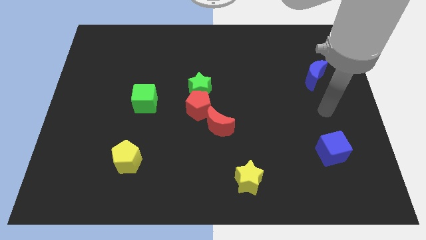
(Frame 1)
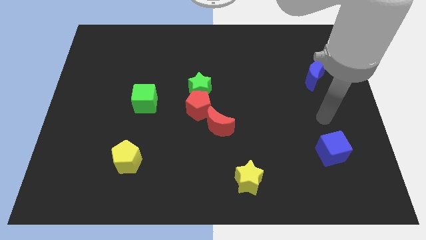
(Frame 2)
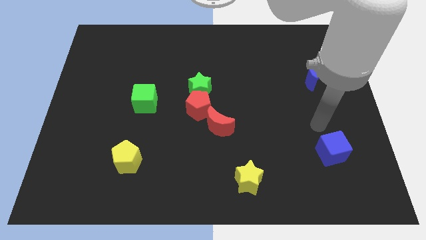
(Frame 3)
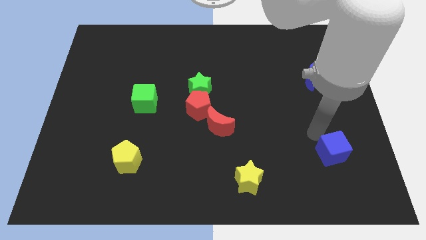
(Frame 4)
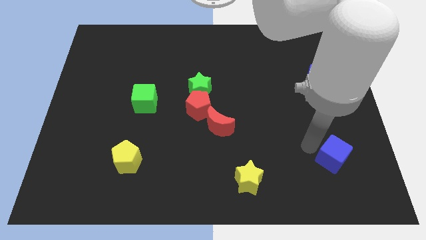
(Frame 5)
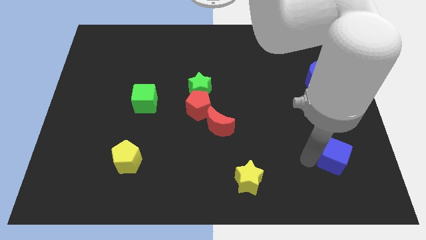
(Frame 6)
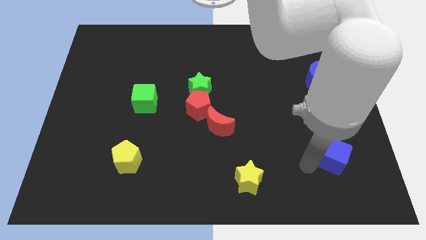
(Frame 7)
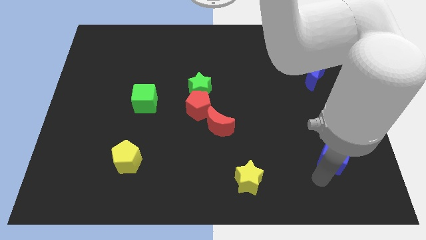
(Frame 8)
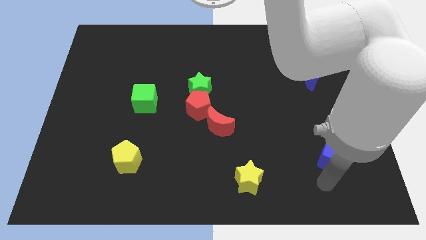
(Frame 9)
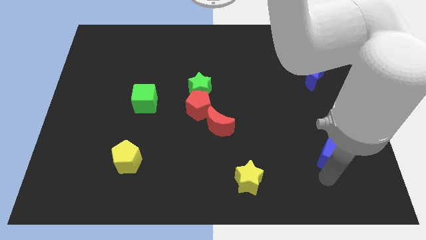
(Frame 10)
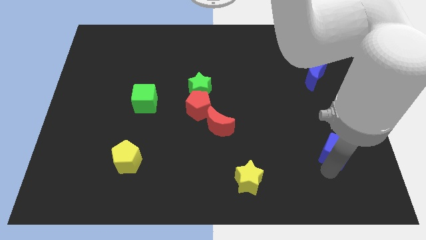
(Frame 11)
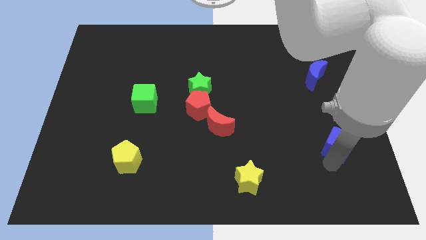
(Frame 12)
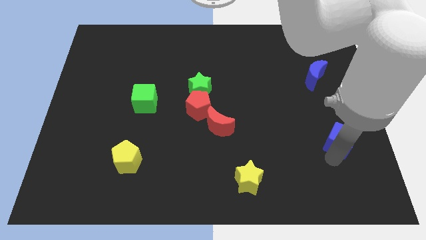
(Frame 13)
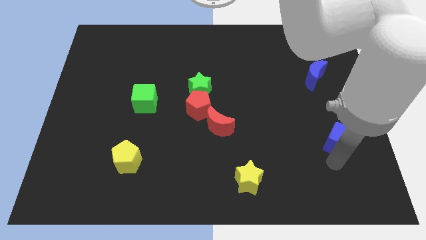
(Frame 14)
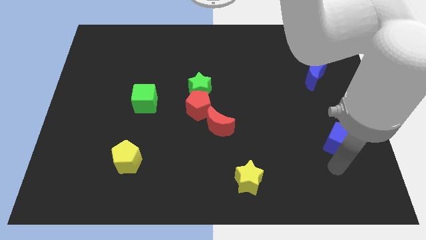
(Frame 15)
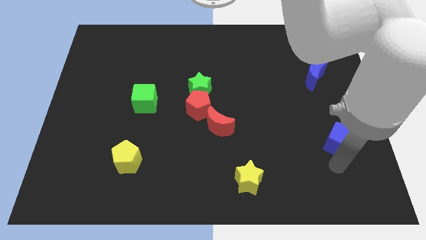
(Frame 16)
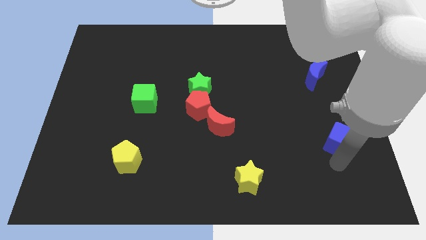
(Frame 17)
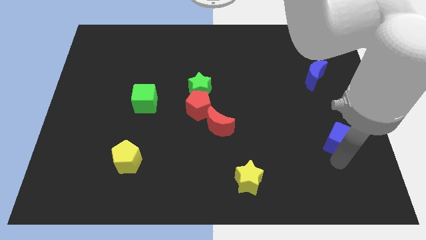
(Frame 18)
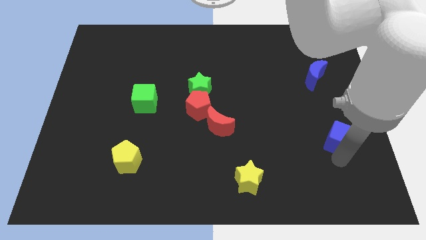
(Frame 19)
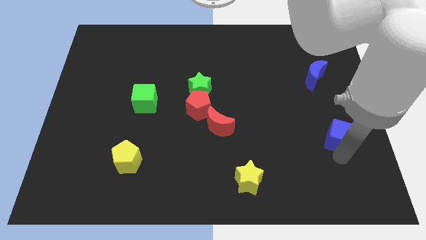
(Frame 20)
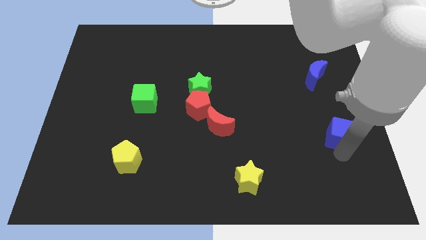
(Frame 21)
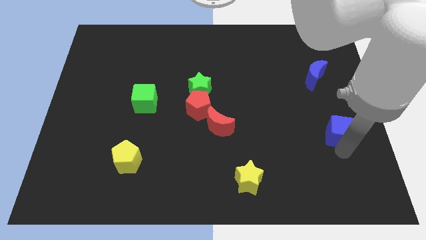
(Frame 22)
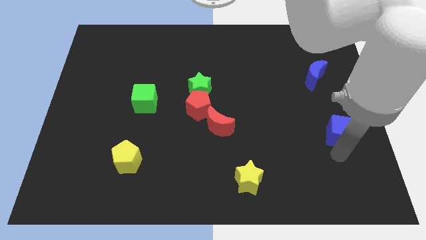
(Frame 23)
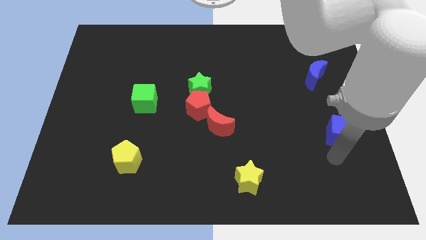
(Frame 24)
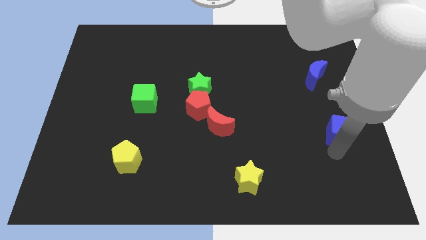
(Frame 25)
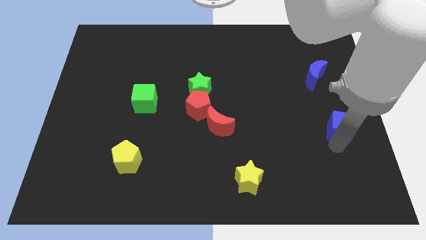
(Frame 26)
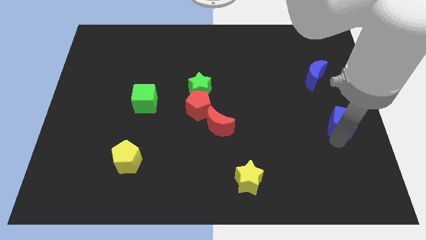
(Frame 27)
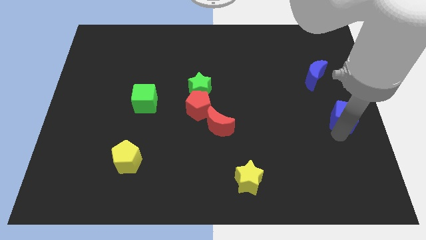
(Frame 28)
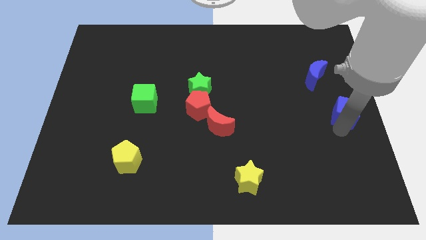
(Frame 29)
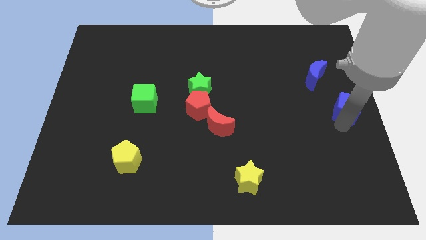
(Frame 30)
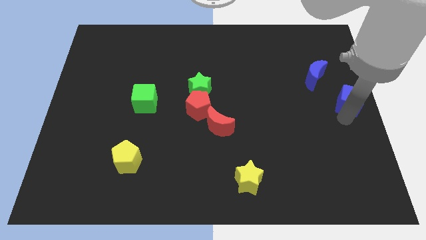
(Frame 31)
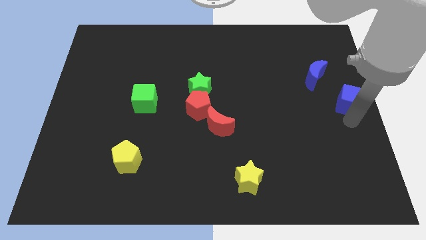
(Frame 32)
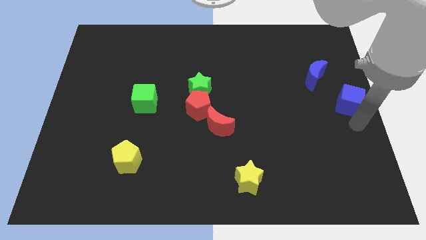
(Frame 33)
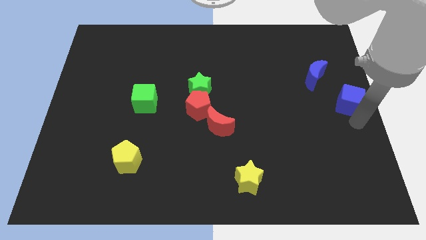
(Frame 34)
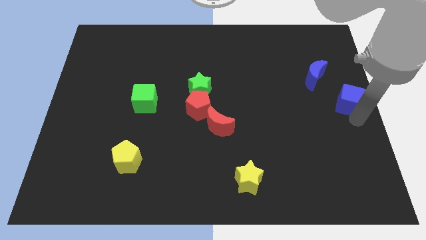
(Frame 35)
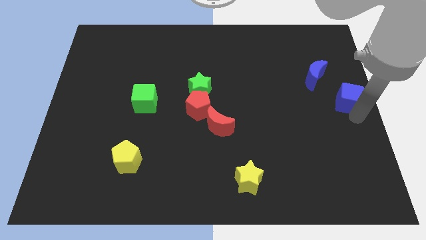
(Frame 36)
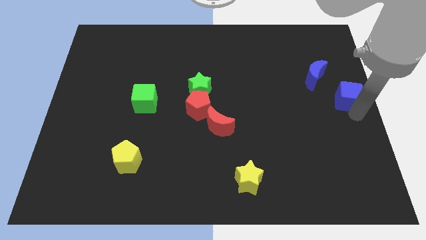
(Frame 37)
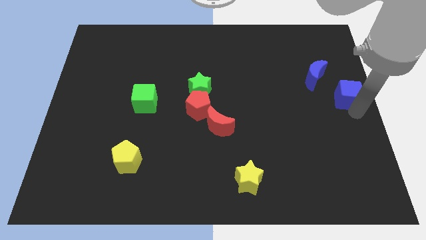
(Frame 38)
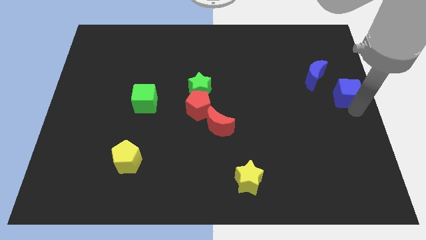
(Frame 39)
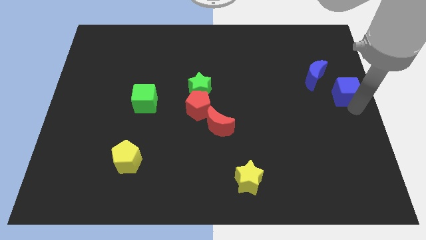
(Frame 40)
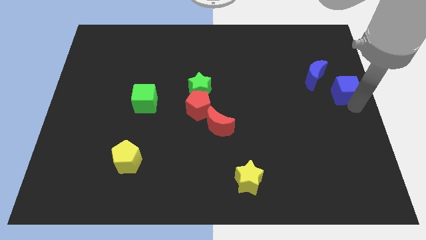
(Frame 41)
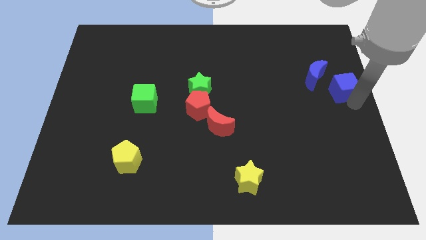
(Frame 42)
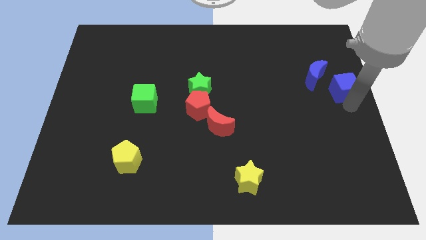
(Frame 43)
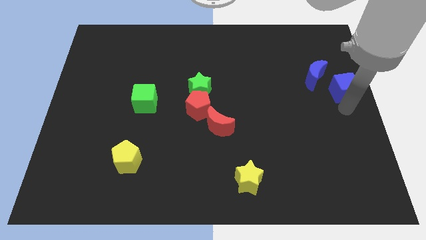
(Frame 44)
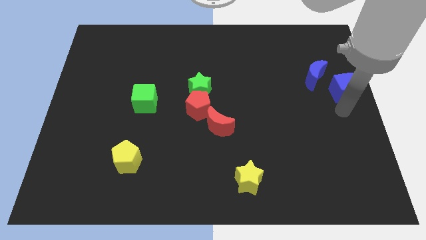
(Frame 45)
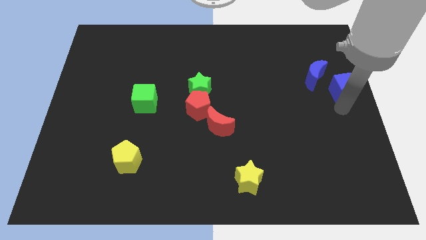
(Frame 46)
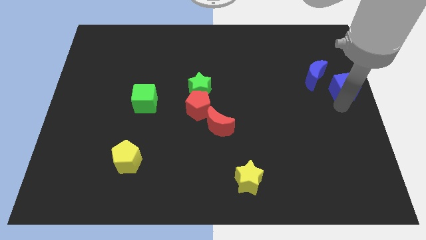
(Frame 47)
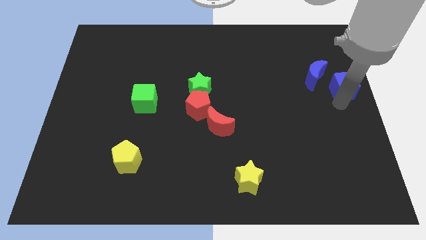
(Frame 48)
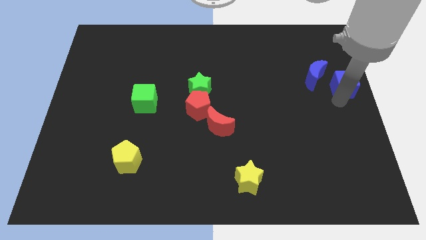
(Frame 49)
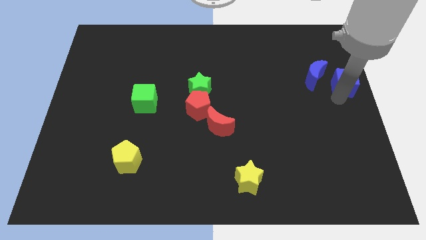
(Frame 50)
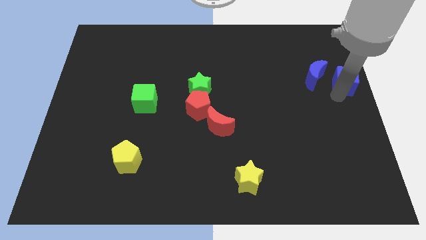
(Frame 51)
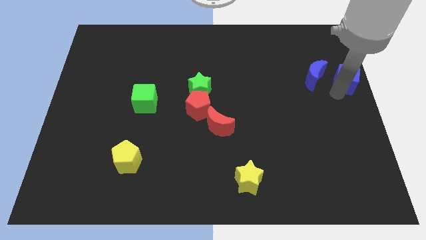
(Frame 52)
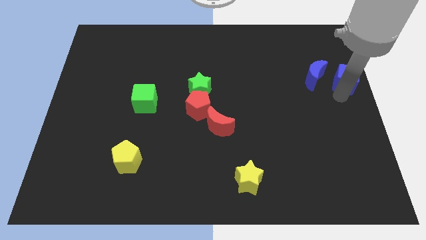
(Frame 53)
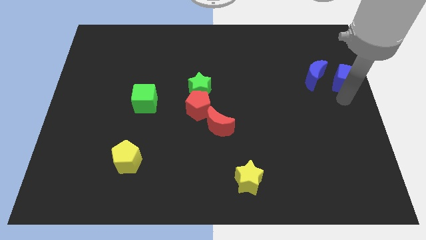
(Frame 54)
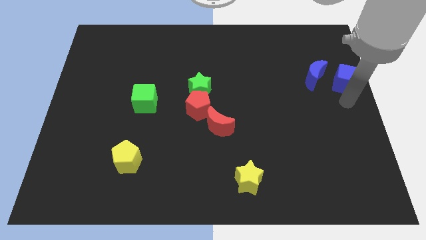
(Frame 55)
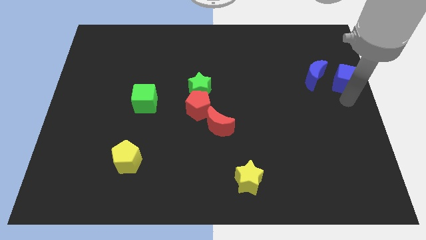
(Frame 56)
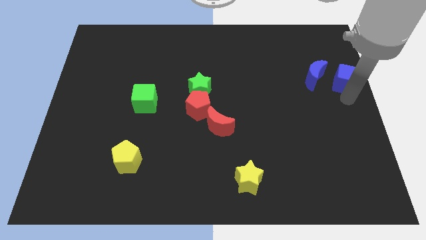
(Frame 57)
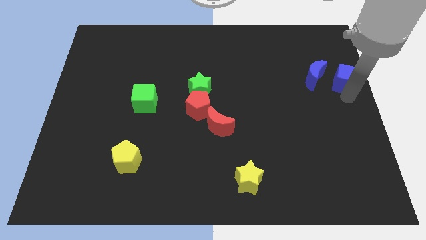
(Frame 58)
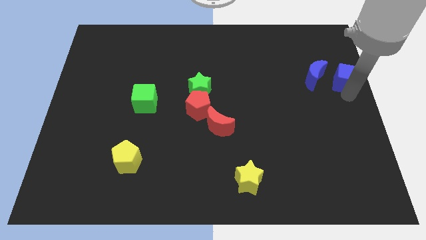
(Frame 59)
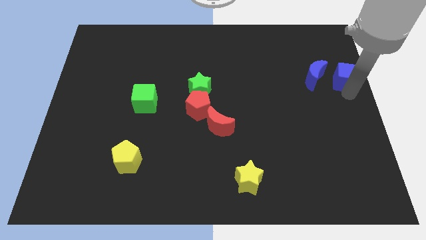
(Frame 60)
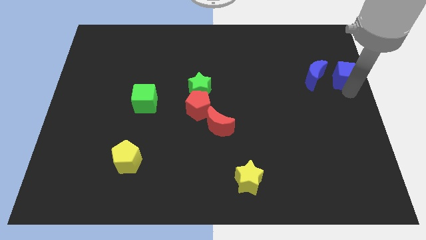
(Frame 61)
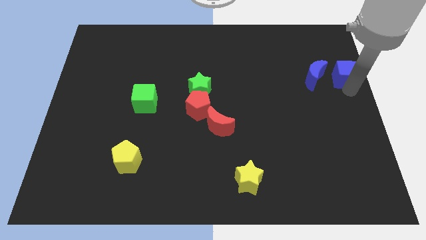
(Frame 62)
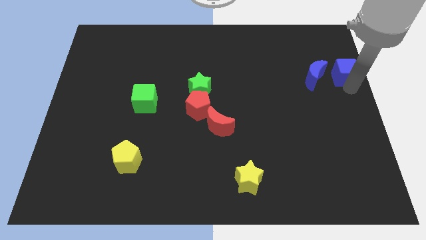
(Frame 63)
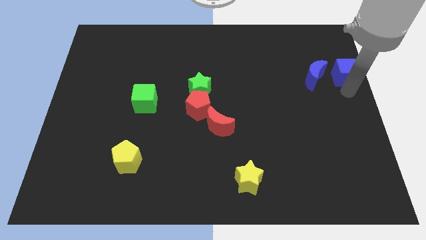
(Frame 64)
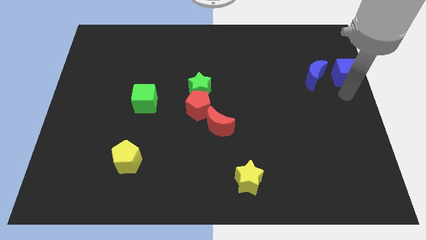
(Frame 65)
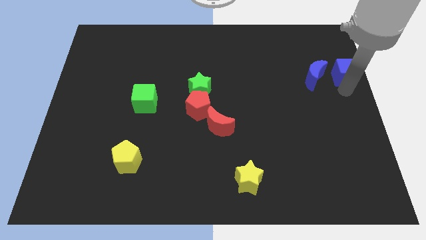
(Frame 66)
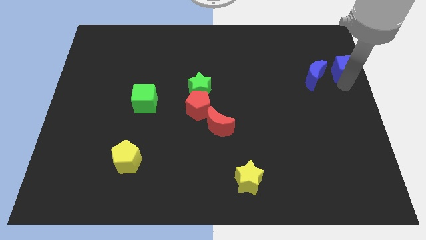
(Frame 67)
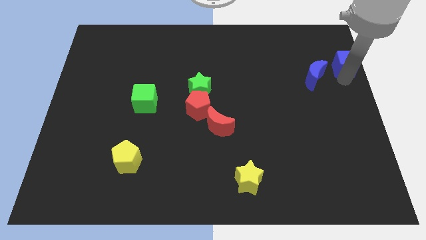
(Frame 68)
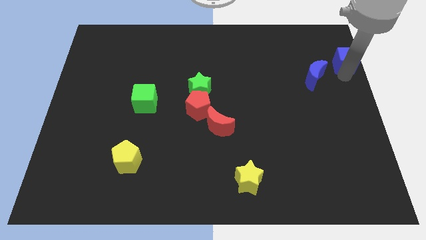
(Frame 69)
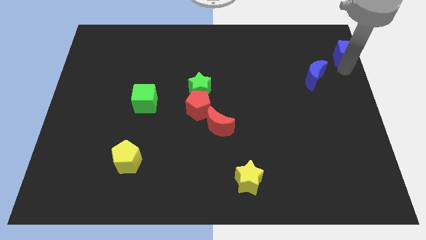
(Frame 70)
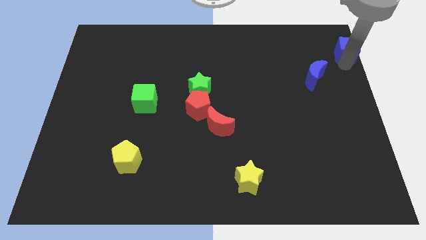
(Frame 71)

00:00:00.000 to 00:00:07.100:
slide the blue cube to the top right
